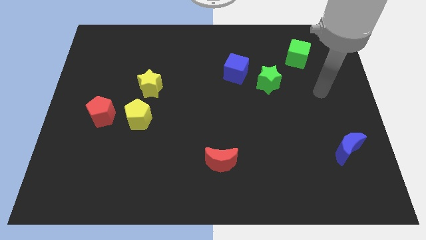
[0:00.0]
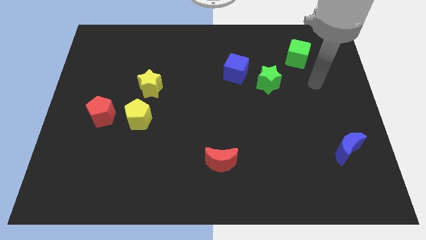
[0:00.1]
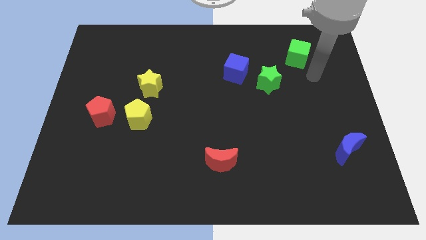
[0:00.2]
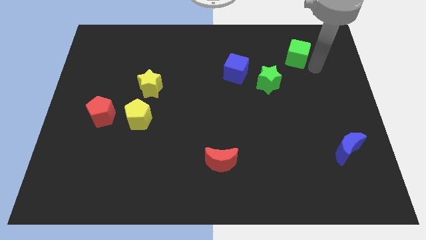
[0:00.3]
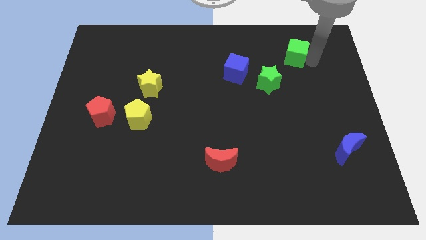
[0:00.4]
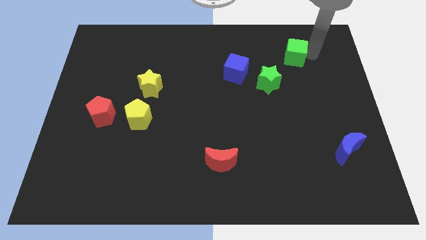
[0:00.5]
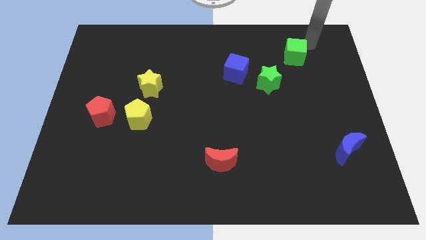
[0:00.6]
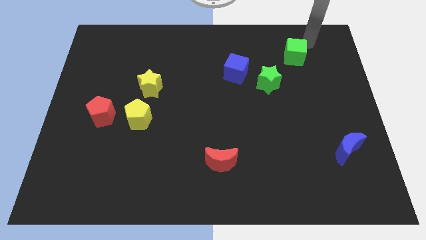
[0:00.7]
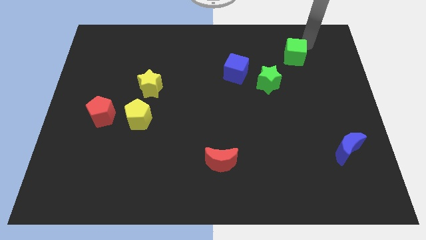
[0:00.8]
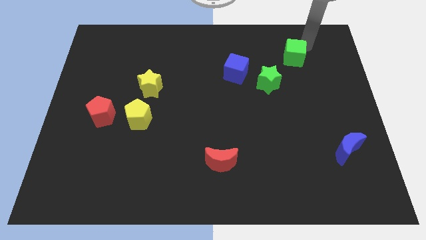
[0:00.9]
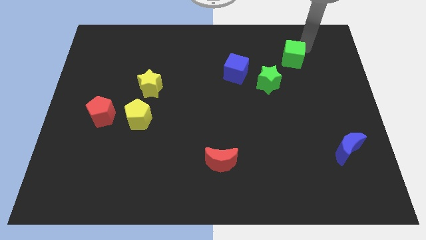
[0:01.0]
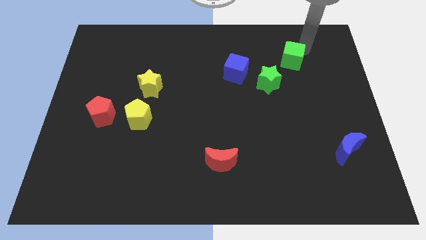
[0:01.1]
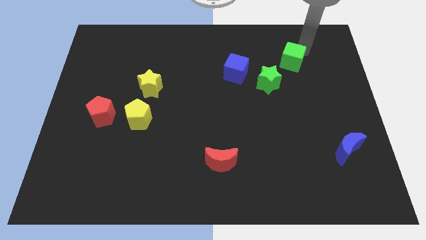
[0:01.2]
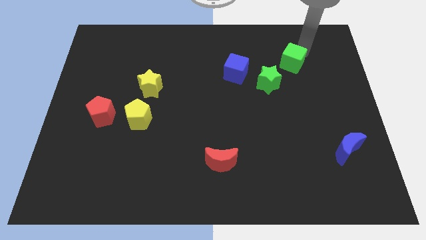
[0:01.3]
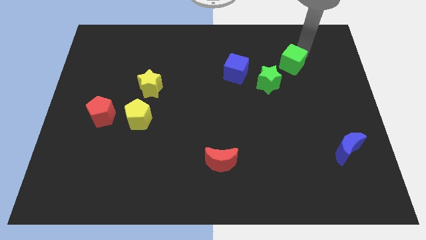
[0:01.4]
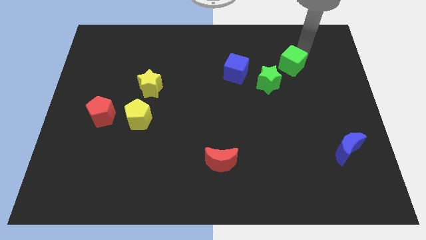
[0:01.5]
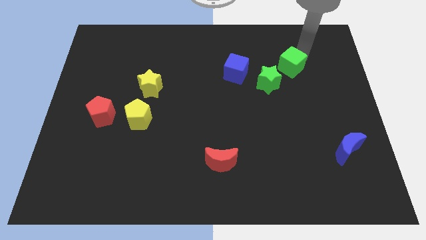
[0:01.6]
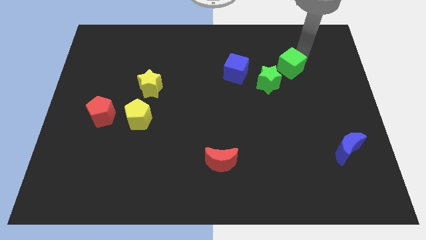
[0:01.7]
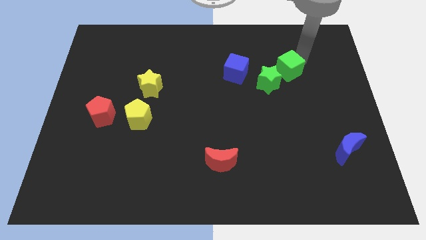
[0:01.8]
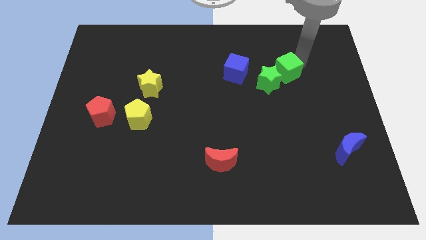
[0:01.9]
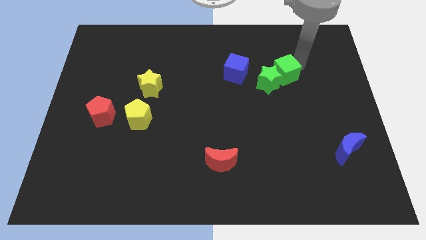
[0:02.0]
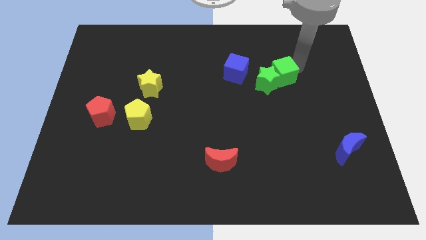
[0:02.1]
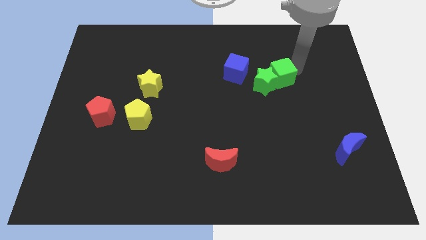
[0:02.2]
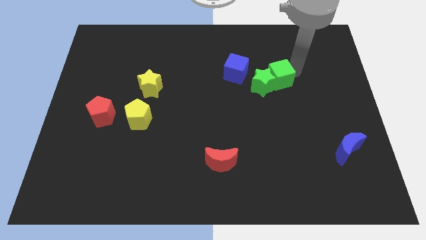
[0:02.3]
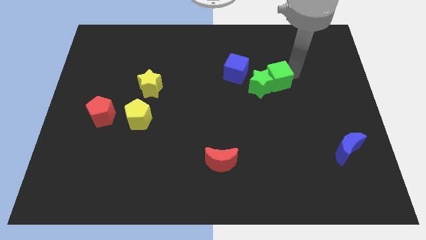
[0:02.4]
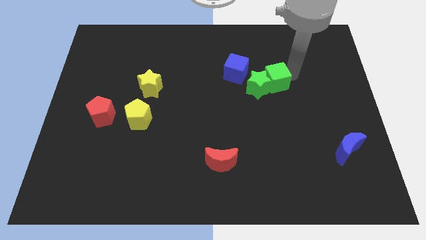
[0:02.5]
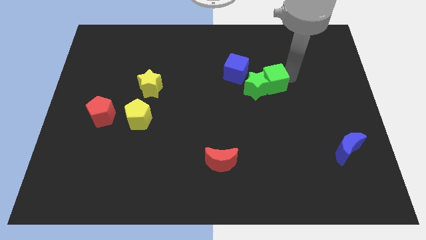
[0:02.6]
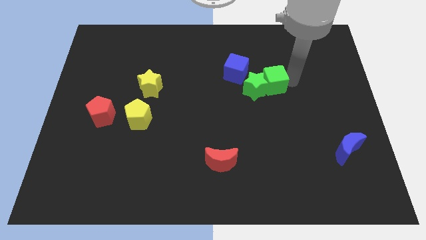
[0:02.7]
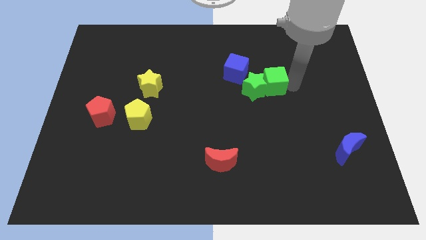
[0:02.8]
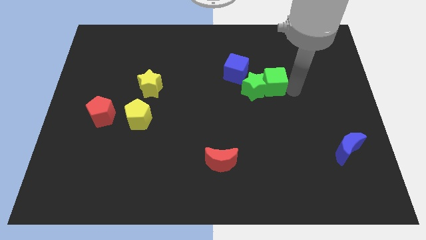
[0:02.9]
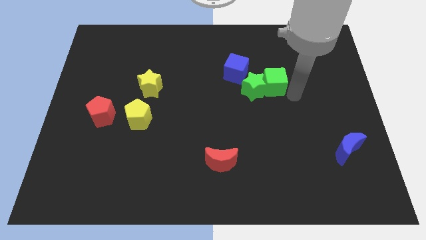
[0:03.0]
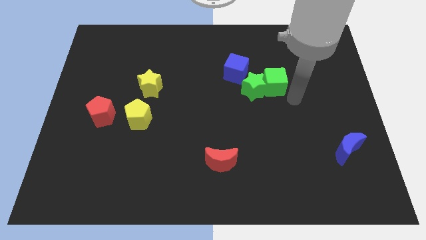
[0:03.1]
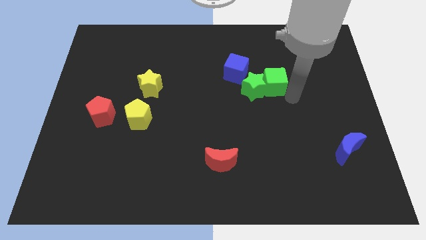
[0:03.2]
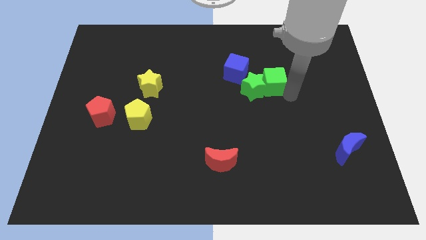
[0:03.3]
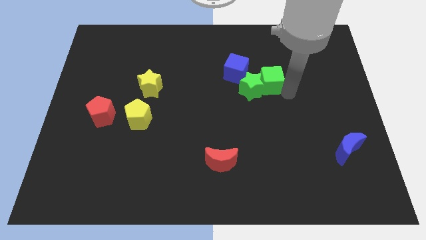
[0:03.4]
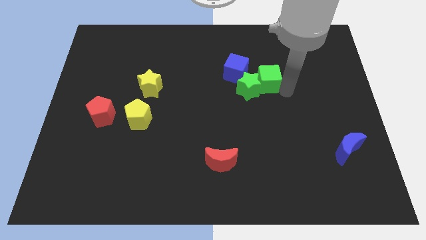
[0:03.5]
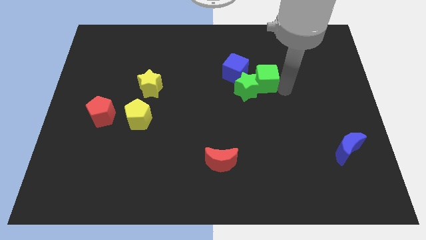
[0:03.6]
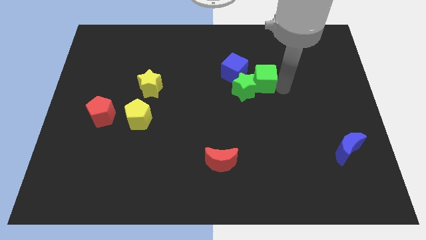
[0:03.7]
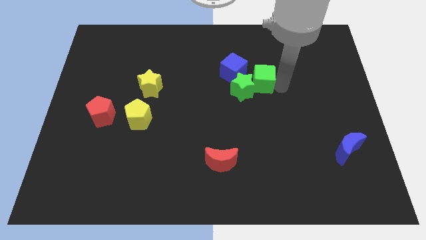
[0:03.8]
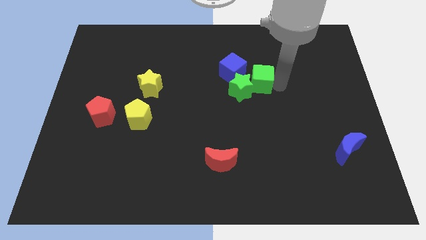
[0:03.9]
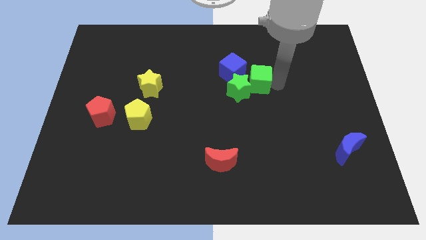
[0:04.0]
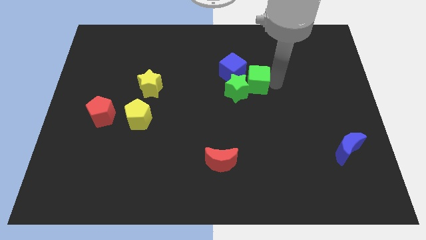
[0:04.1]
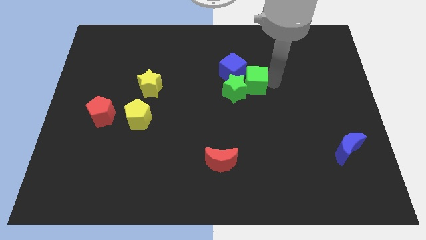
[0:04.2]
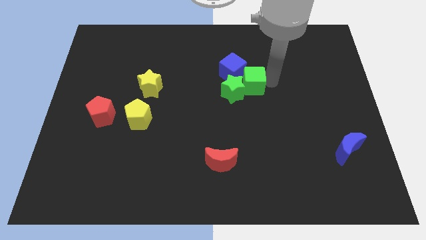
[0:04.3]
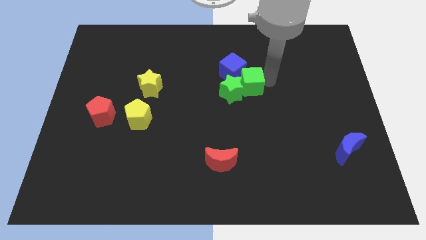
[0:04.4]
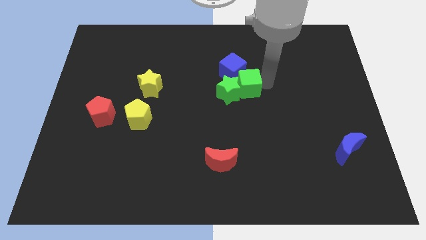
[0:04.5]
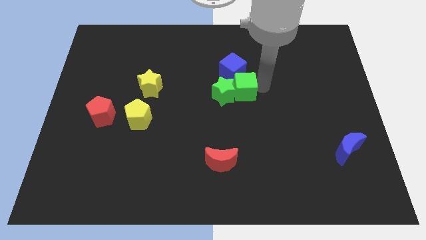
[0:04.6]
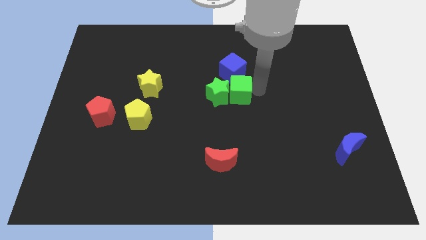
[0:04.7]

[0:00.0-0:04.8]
move the green cube diagonally downwards and left

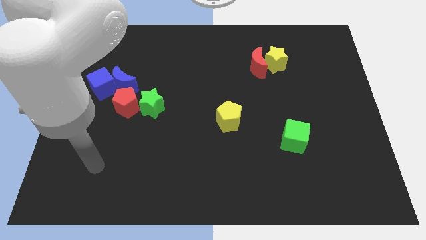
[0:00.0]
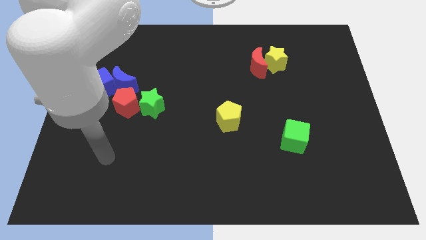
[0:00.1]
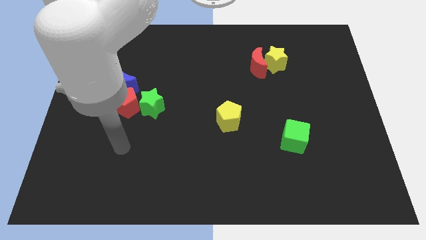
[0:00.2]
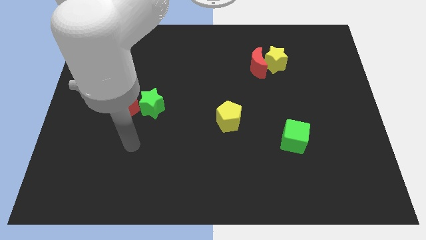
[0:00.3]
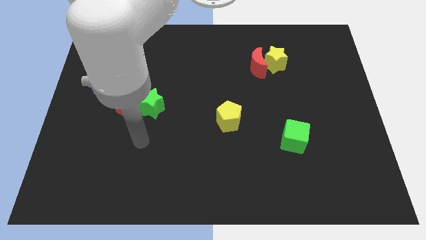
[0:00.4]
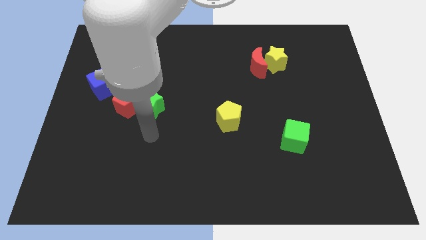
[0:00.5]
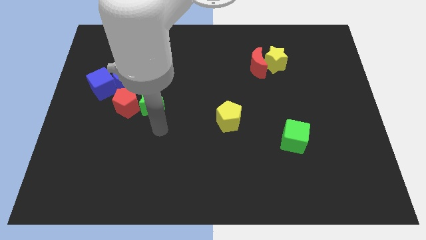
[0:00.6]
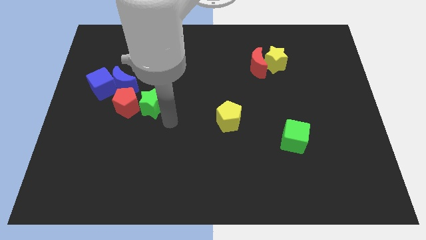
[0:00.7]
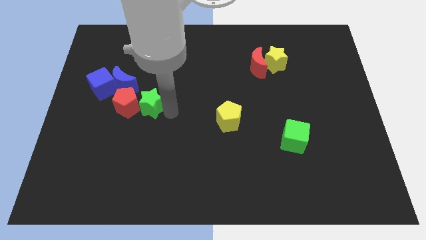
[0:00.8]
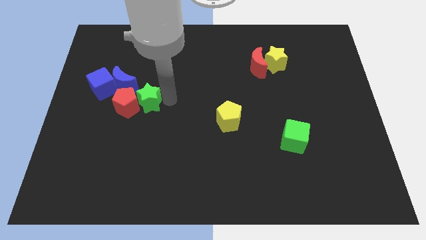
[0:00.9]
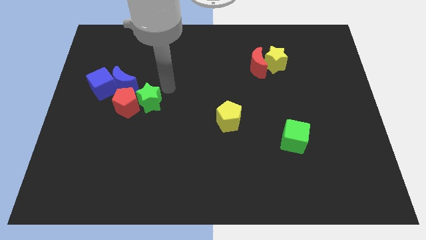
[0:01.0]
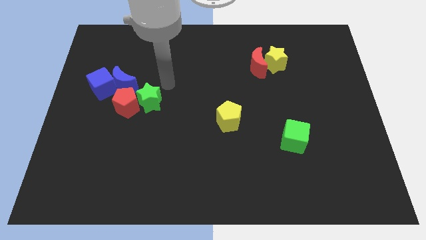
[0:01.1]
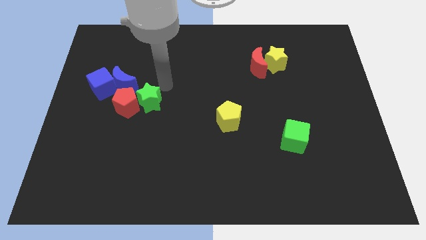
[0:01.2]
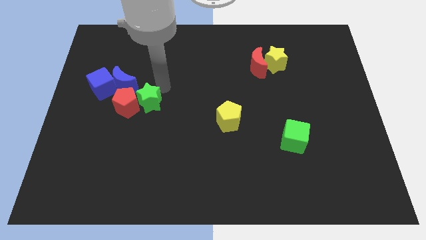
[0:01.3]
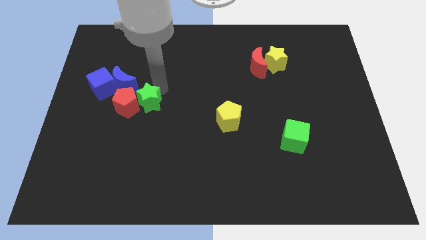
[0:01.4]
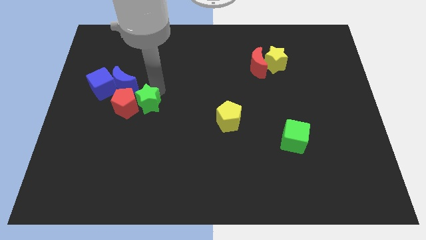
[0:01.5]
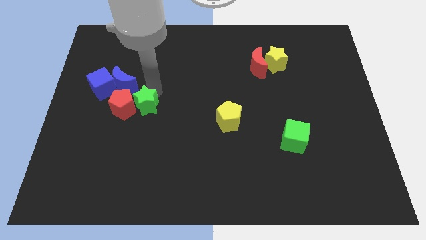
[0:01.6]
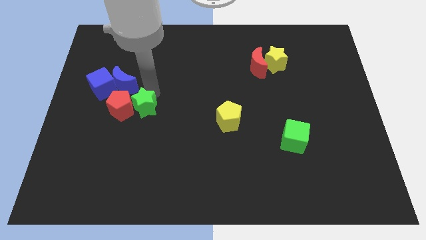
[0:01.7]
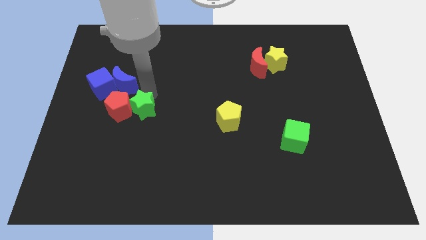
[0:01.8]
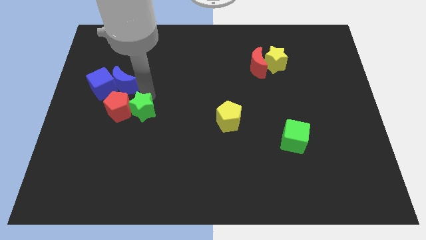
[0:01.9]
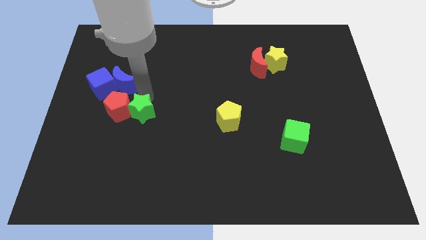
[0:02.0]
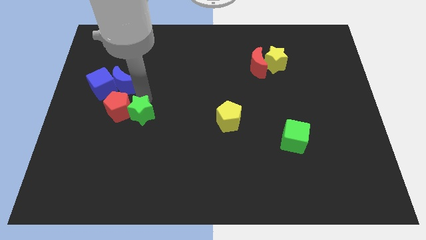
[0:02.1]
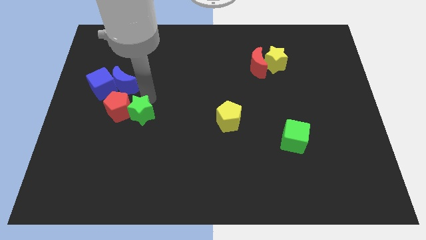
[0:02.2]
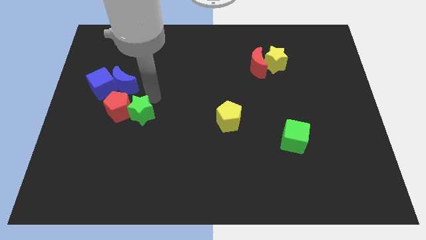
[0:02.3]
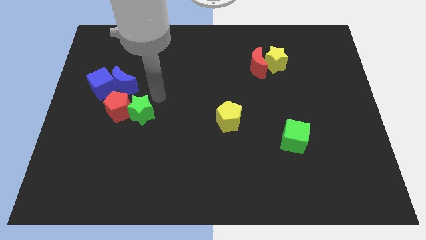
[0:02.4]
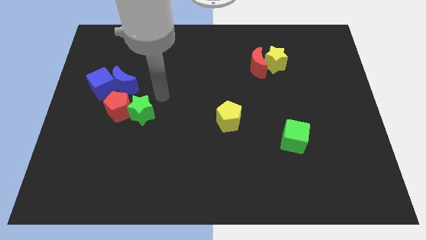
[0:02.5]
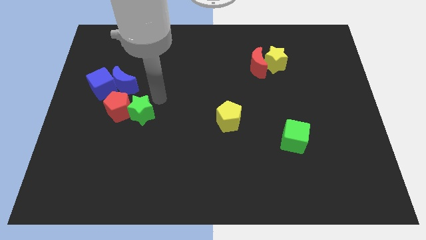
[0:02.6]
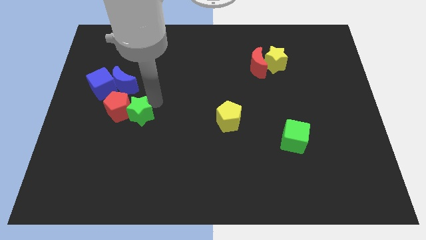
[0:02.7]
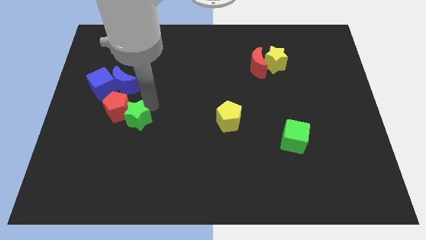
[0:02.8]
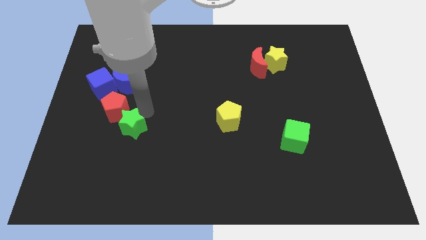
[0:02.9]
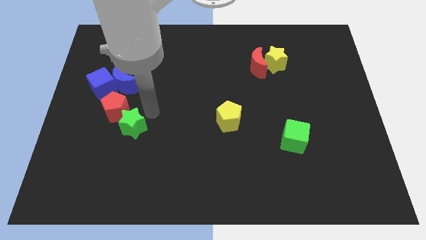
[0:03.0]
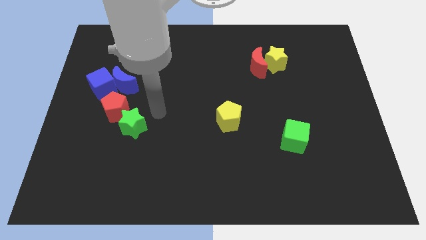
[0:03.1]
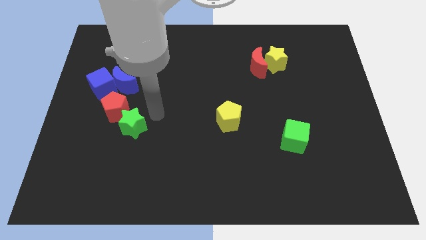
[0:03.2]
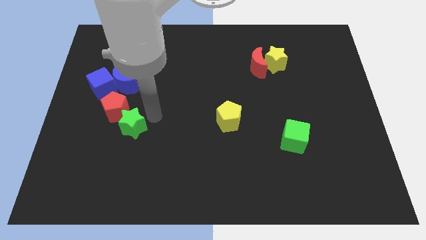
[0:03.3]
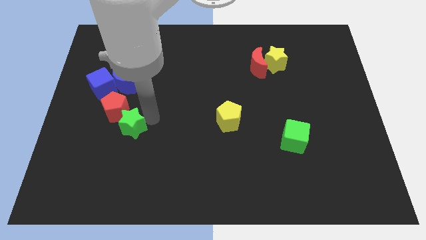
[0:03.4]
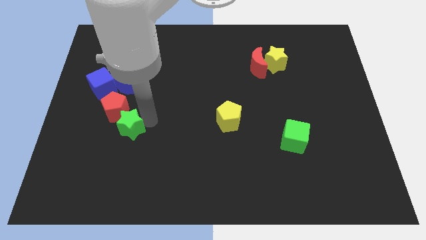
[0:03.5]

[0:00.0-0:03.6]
slide the green star a bit downwards and left
